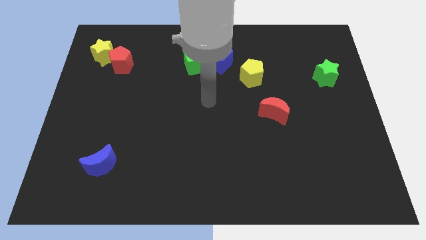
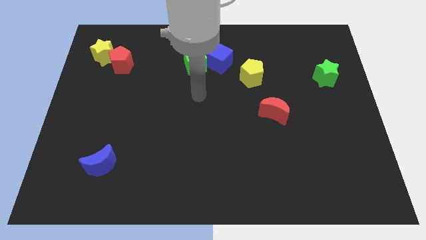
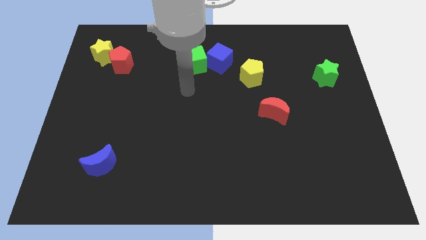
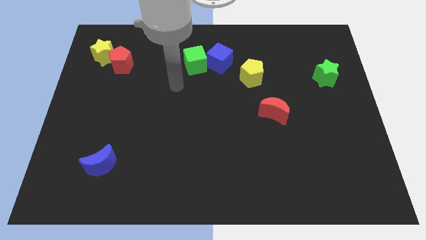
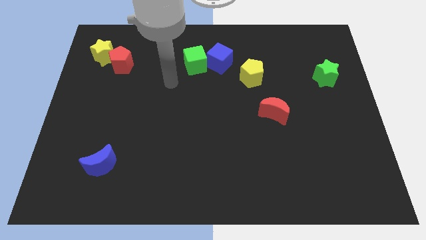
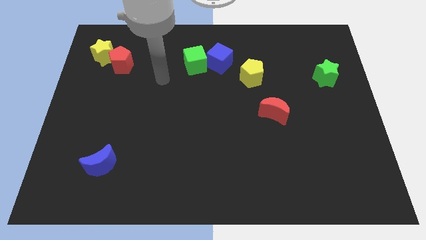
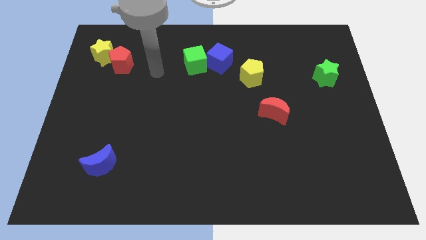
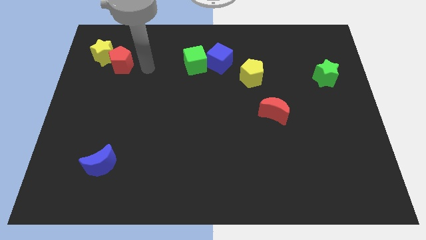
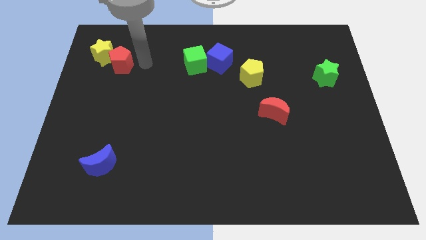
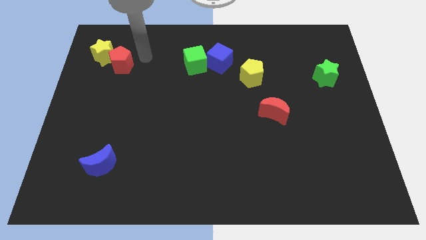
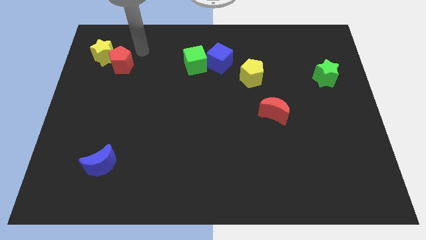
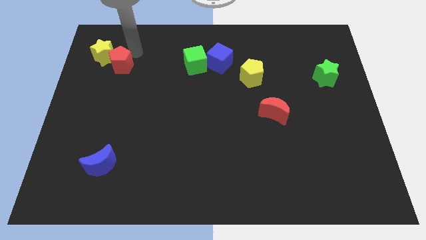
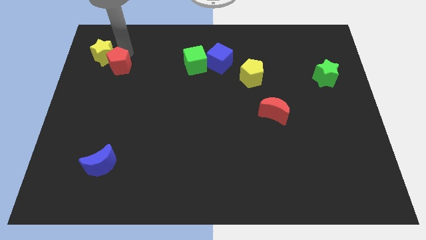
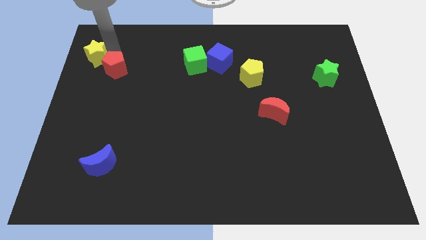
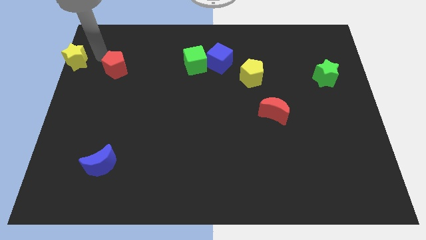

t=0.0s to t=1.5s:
move the red pentagon away from the yellow star

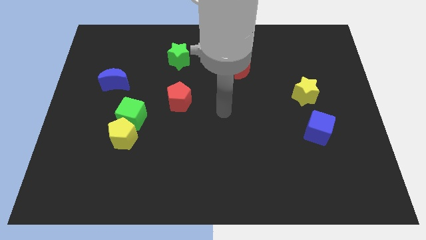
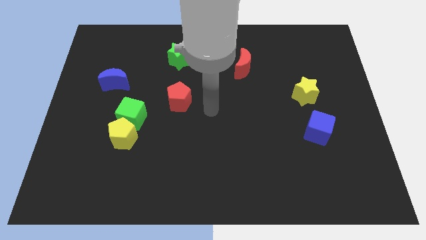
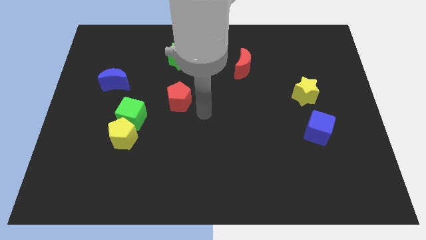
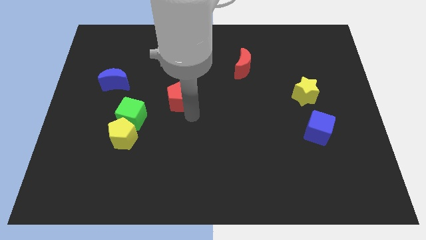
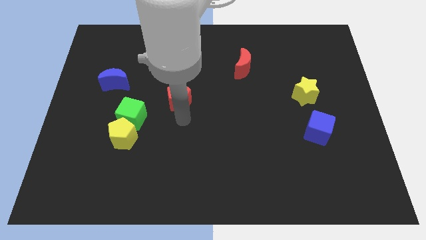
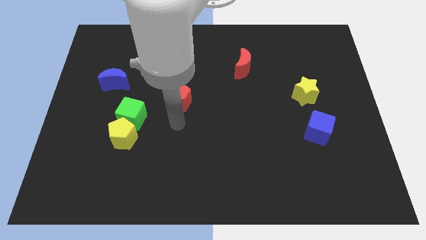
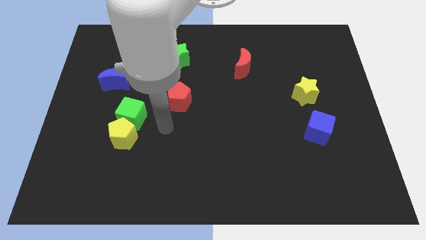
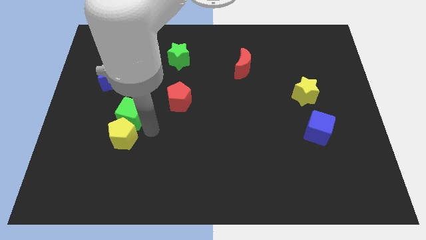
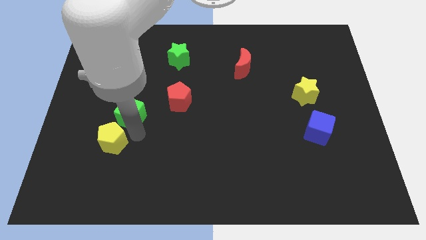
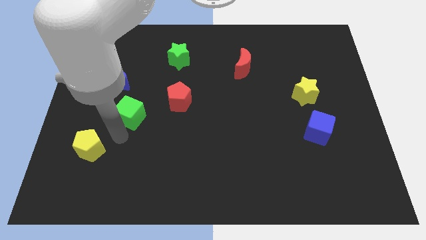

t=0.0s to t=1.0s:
move the green cube away from the yellow pentagon

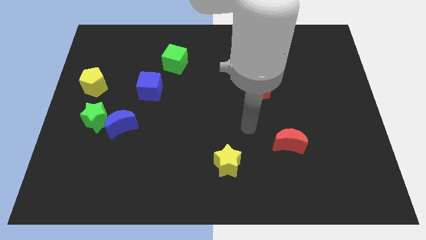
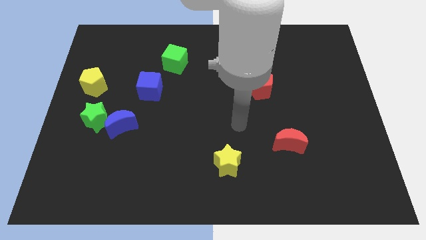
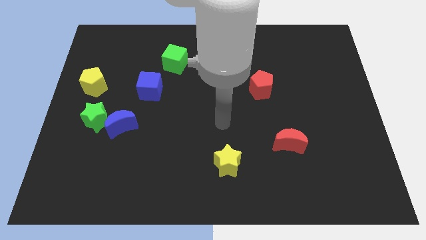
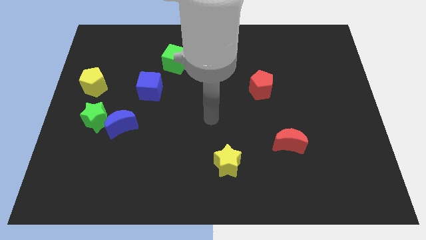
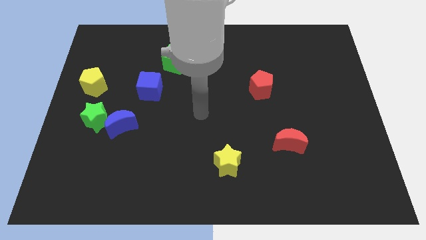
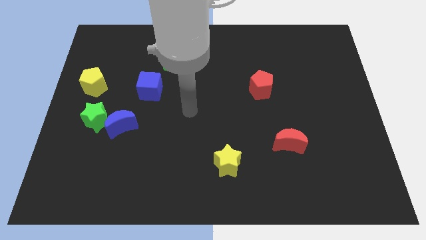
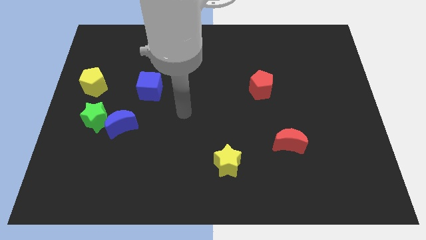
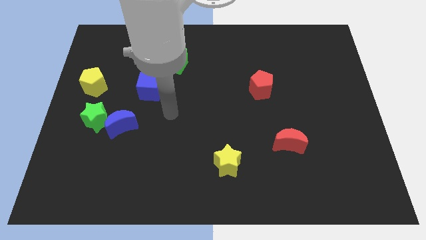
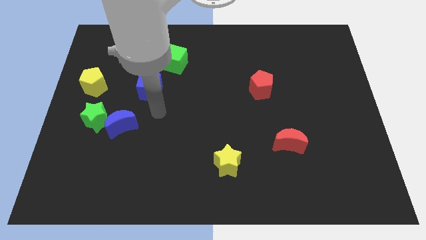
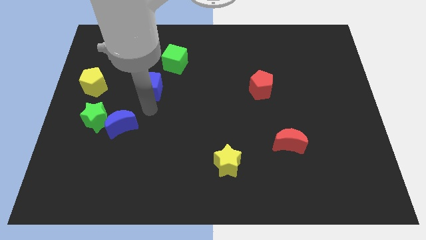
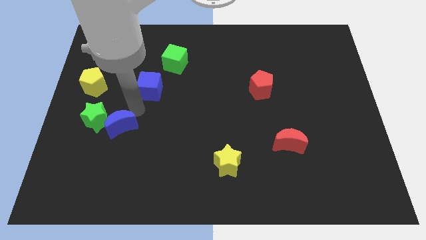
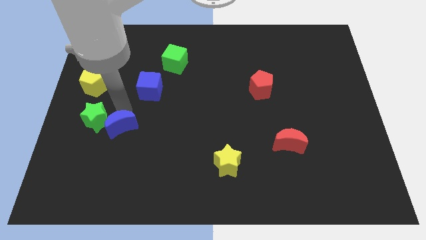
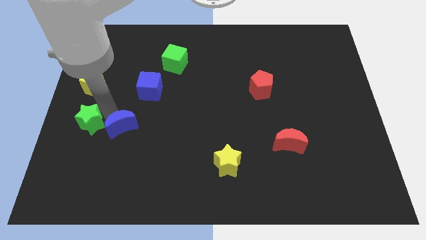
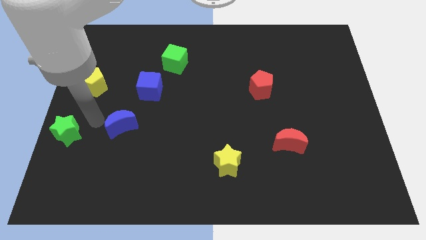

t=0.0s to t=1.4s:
move the blue moon away from the green star

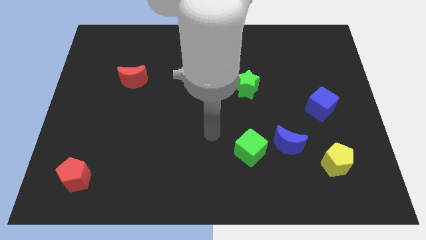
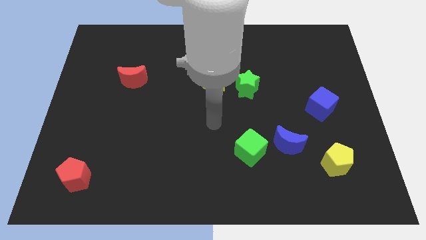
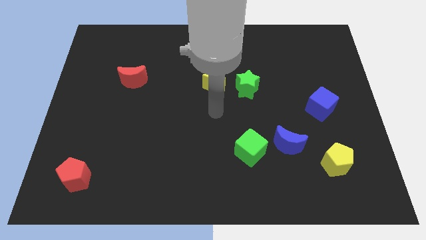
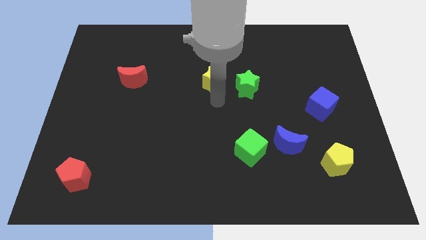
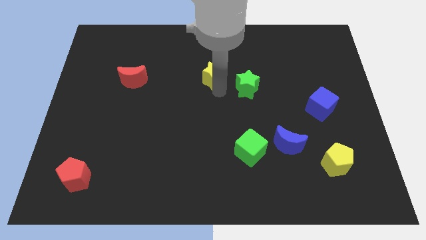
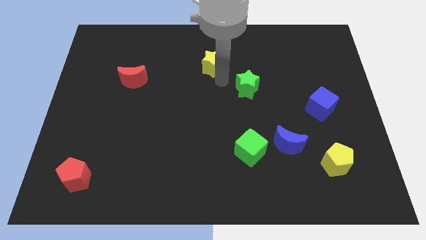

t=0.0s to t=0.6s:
move the green star away from the yellow star

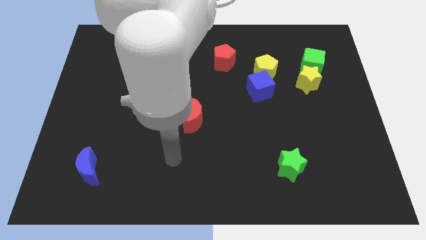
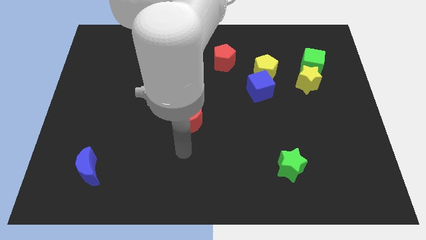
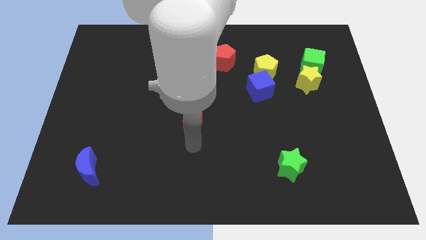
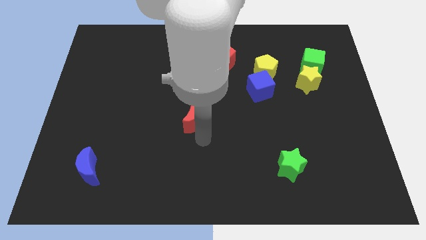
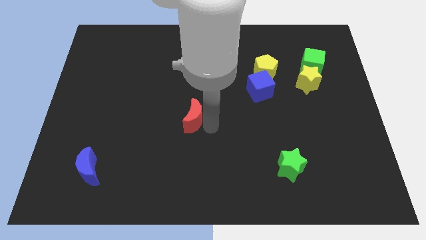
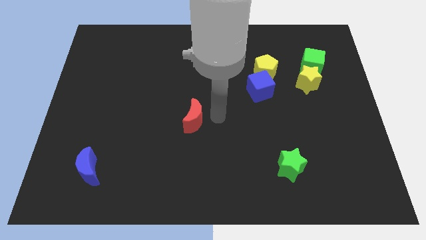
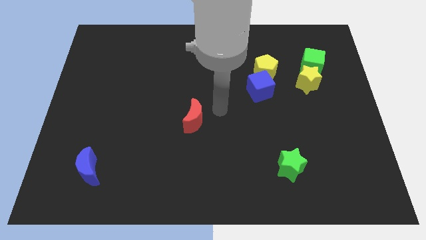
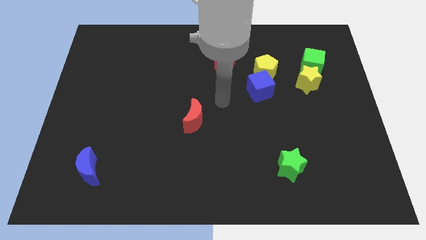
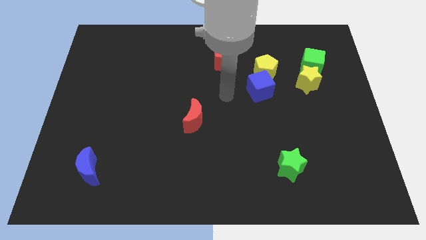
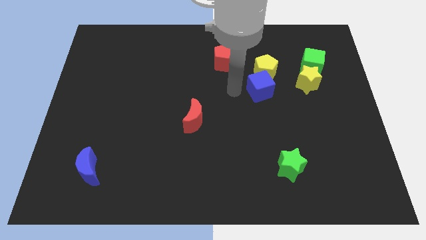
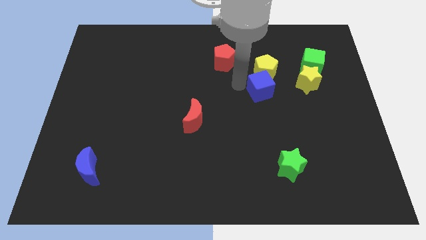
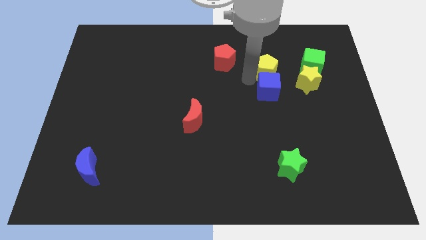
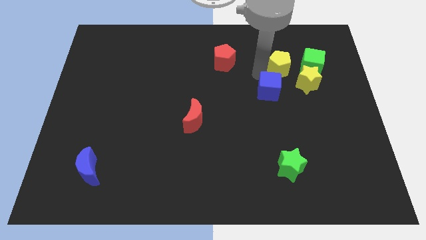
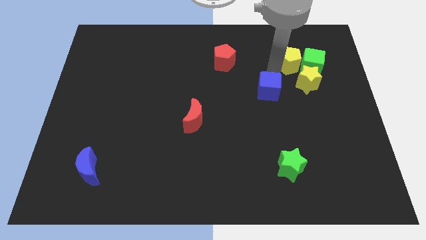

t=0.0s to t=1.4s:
pull the blue cube apart from the yellow pentagon

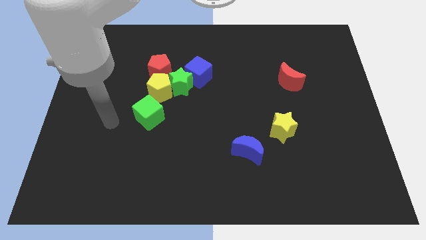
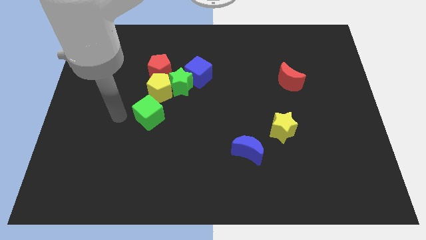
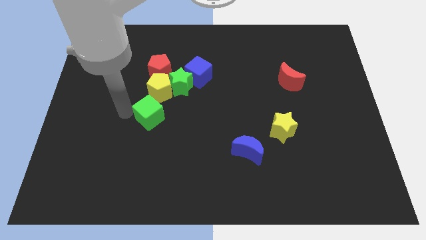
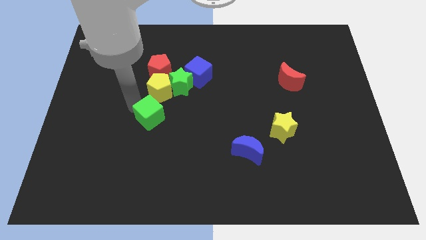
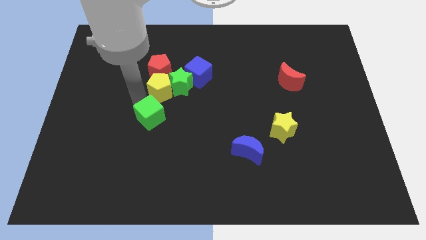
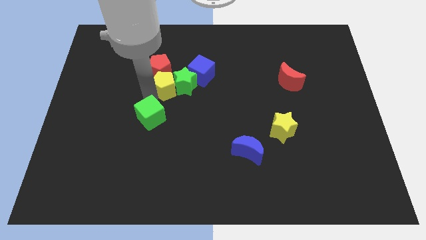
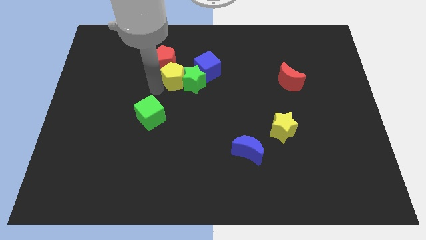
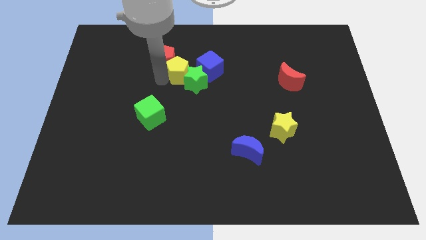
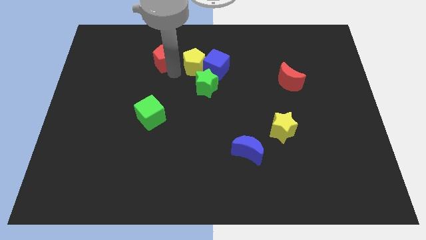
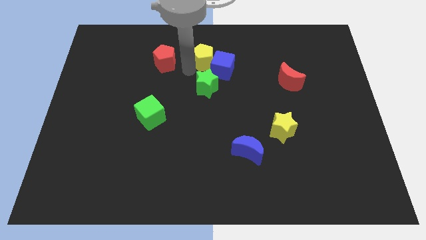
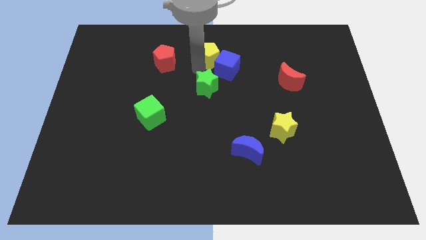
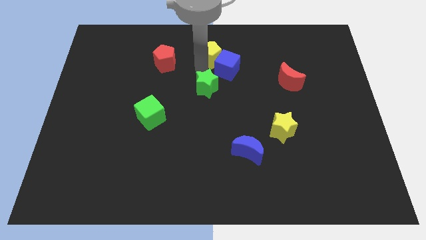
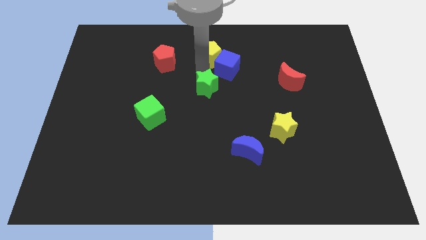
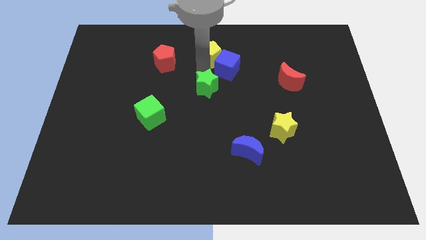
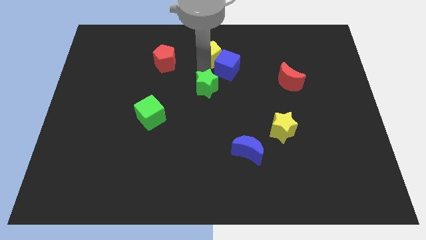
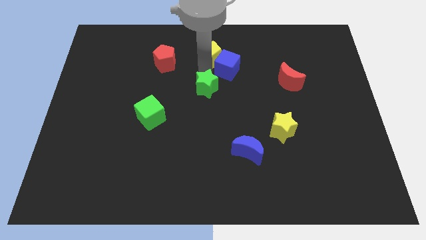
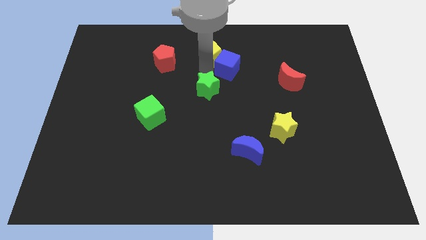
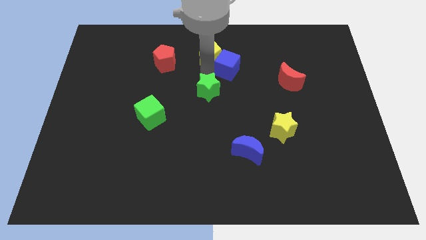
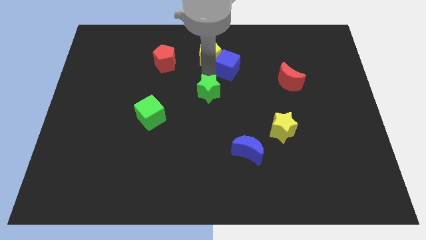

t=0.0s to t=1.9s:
pull the green star apart from the clump

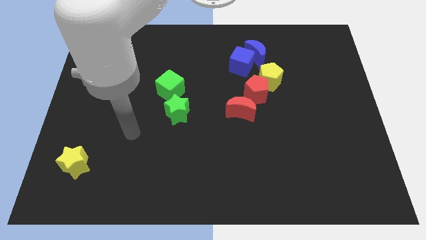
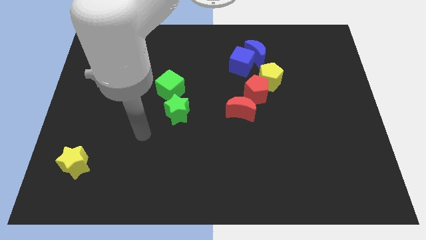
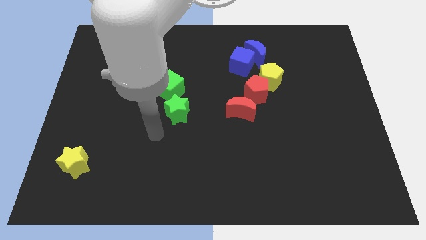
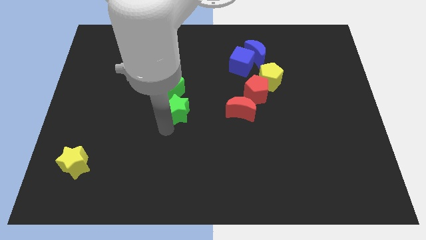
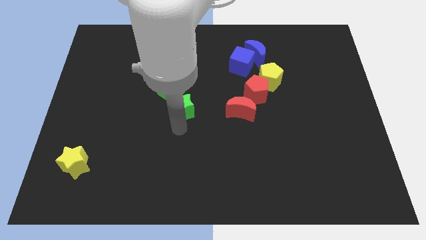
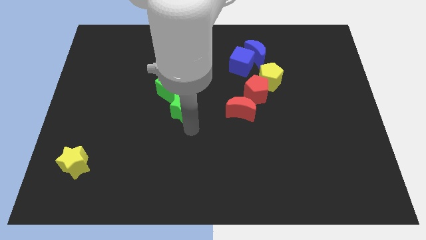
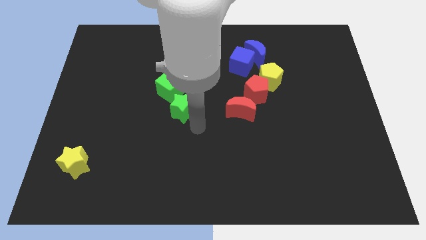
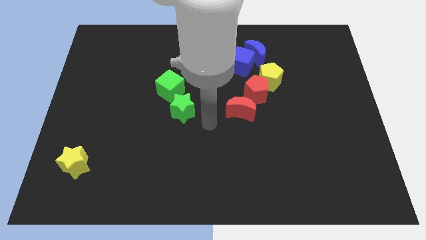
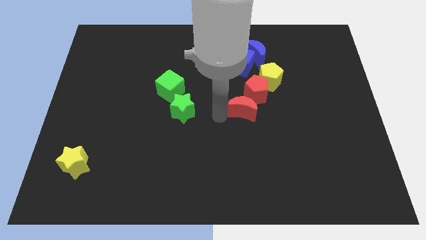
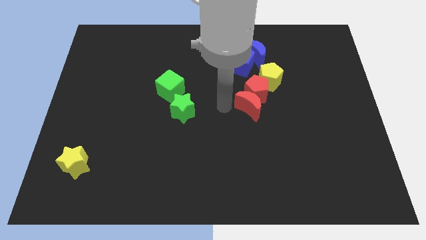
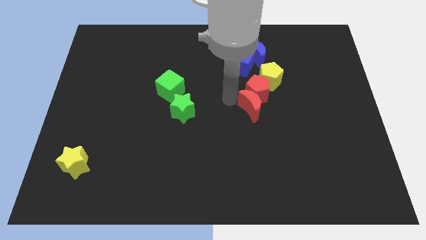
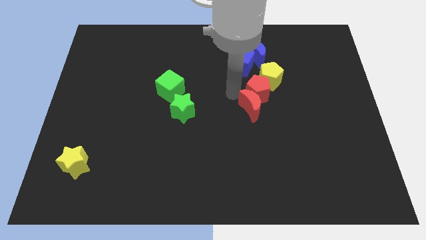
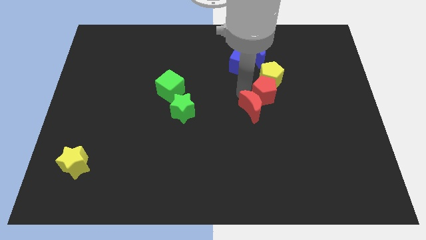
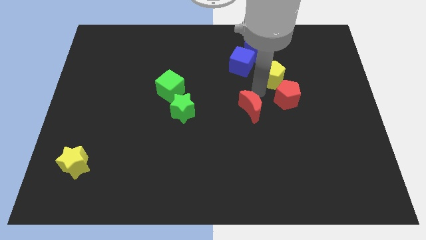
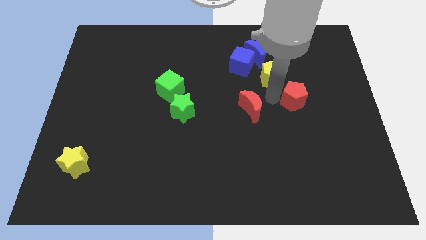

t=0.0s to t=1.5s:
separate the red moon from the red pentagon

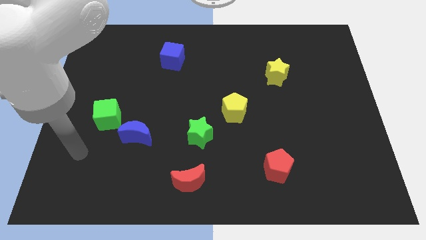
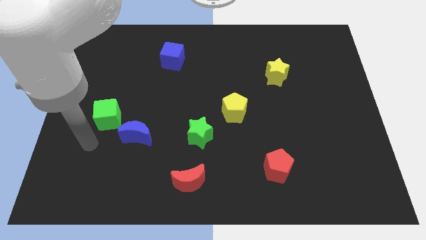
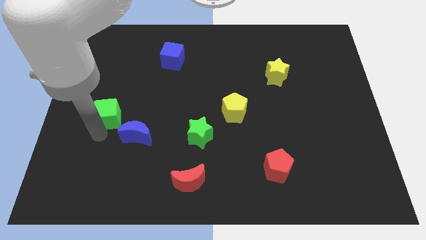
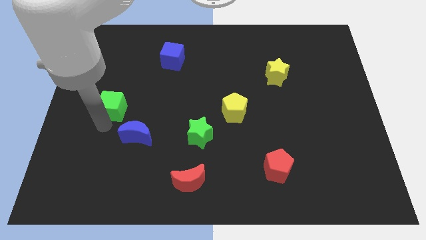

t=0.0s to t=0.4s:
pull the blue moon apart from the green cube
